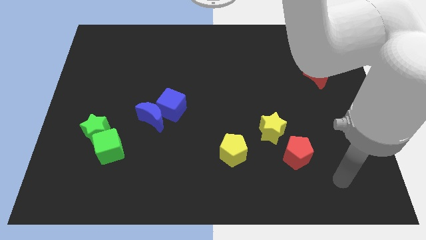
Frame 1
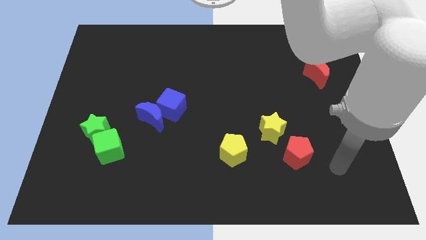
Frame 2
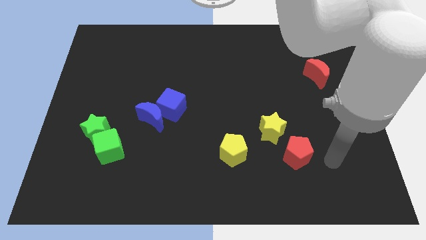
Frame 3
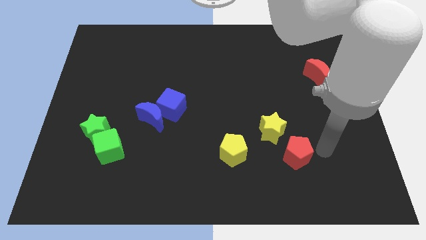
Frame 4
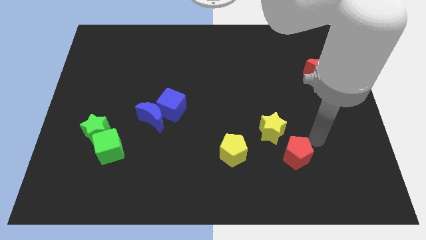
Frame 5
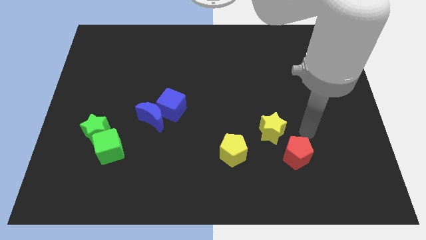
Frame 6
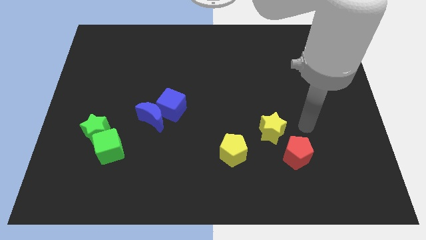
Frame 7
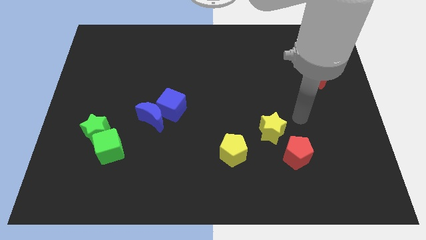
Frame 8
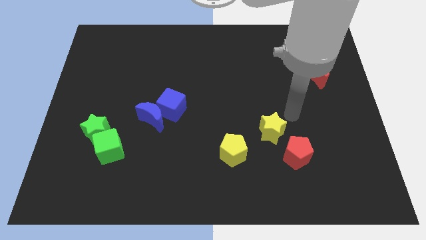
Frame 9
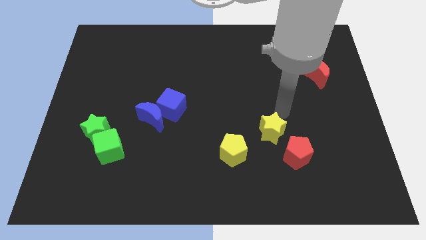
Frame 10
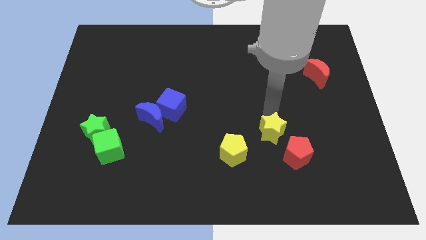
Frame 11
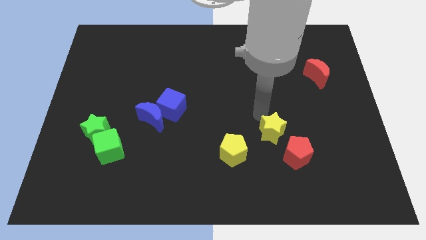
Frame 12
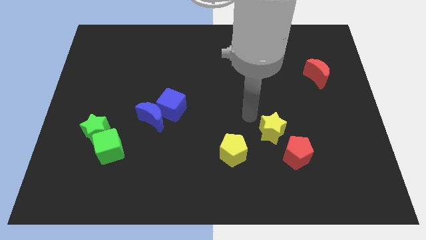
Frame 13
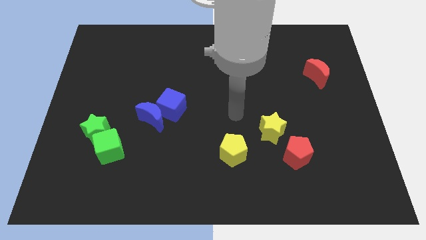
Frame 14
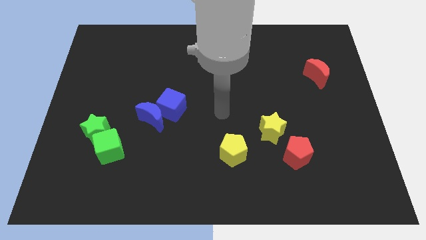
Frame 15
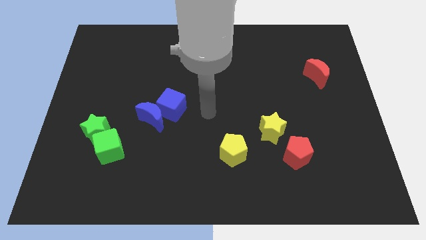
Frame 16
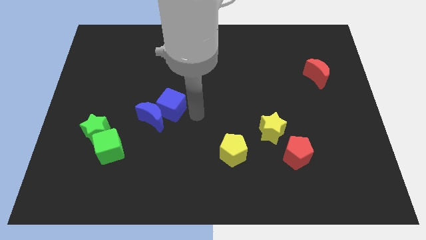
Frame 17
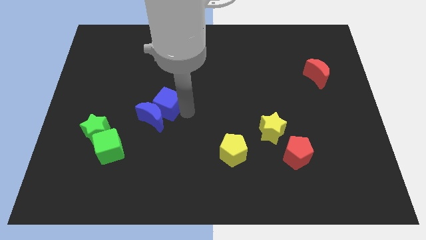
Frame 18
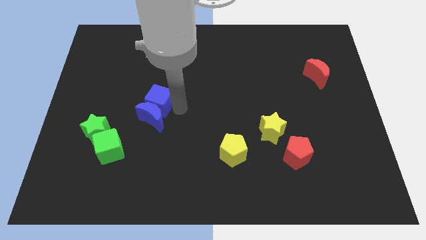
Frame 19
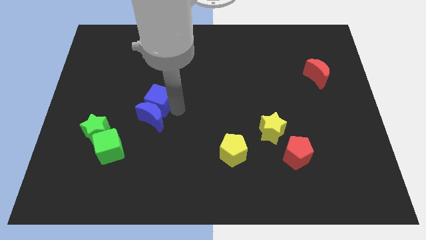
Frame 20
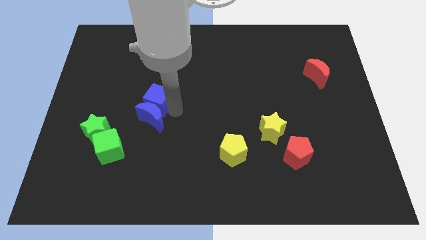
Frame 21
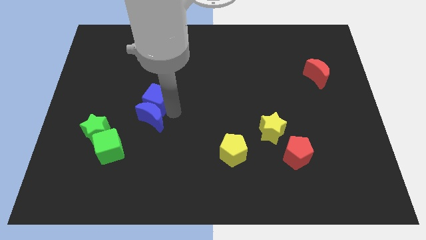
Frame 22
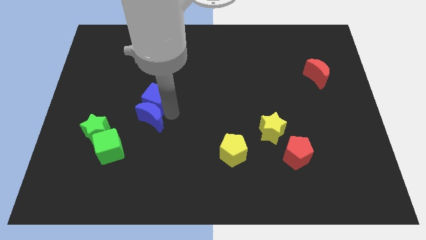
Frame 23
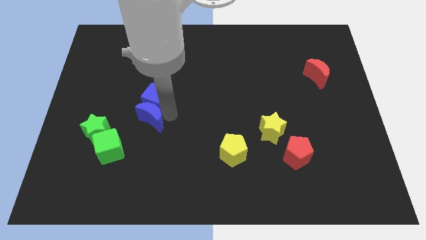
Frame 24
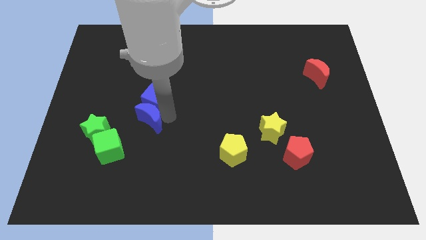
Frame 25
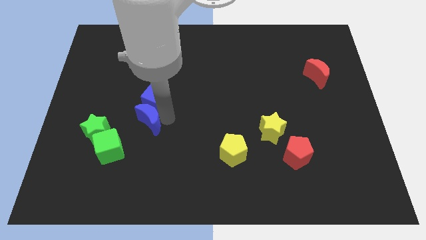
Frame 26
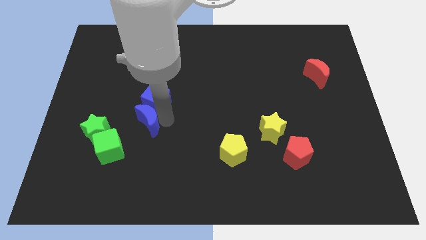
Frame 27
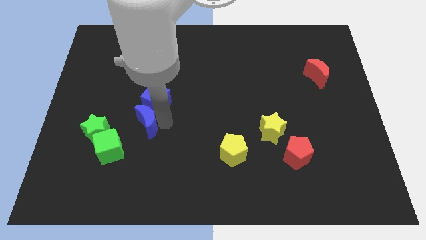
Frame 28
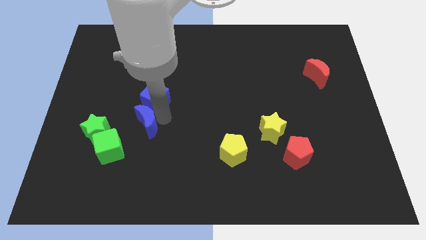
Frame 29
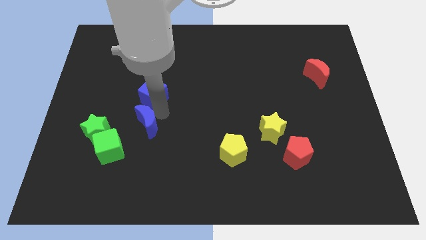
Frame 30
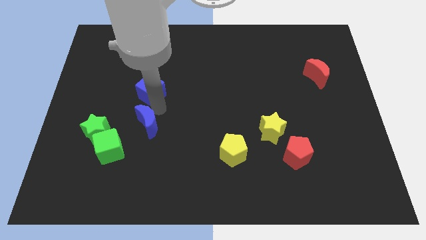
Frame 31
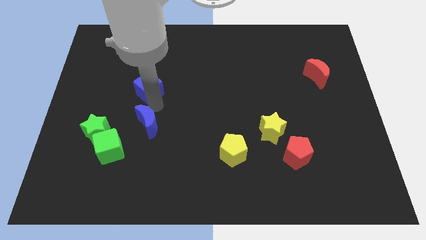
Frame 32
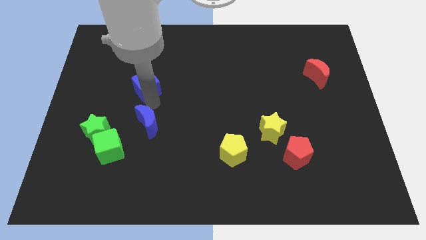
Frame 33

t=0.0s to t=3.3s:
pull the blue moon apart from the blue cube

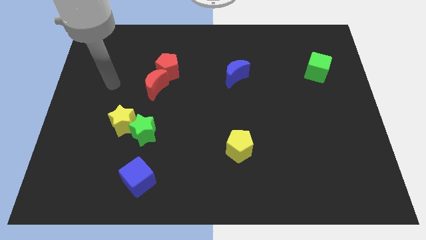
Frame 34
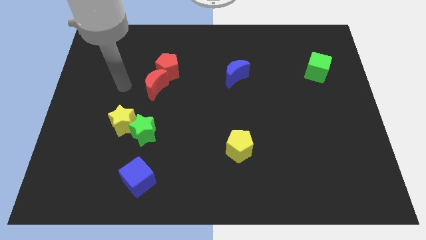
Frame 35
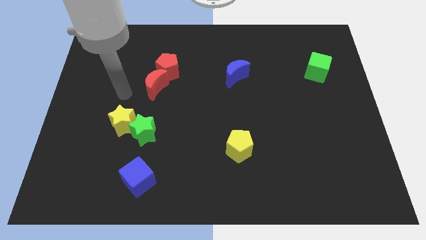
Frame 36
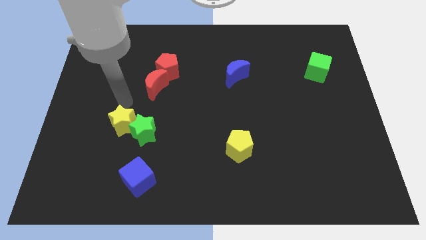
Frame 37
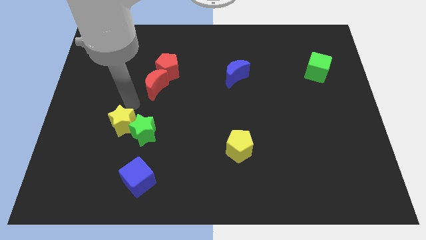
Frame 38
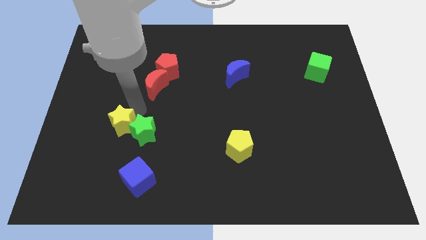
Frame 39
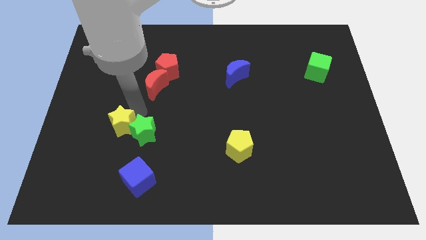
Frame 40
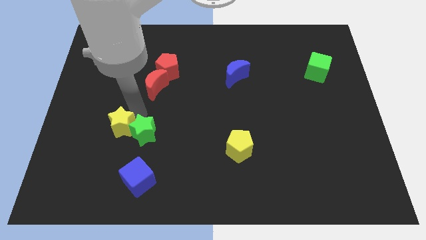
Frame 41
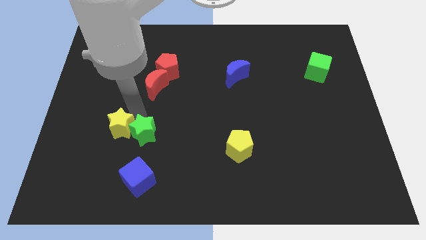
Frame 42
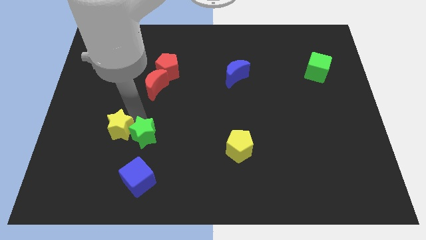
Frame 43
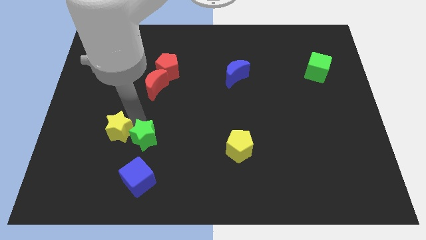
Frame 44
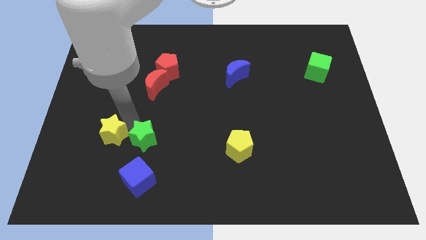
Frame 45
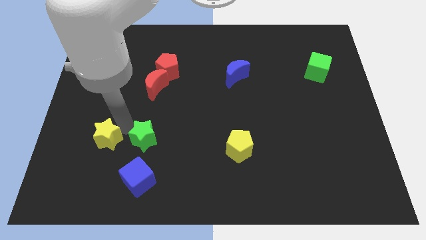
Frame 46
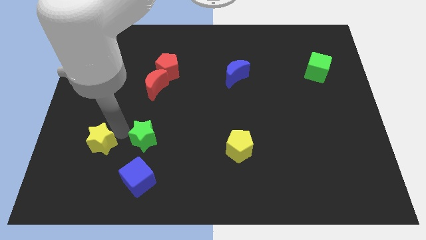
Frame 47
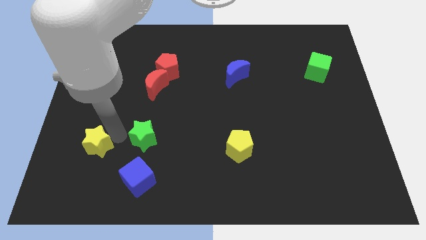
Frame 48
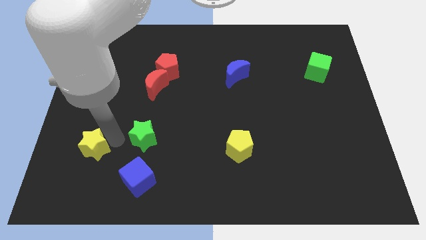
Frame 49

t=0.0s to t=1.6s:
move the green star away from the yellow star

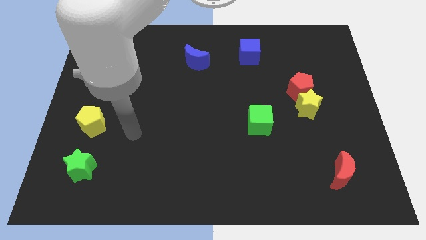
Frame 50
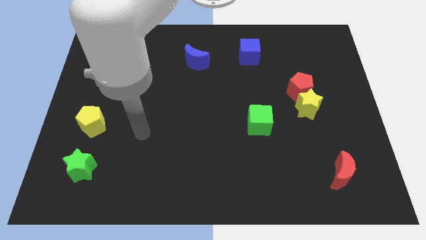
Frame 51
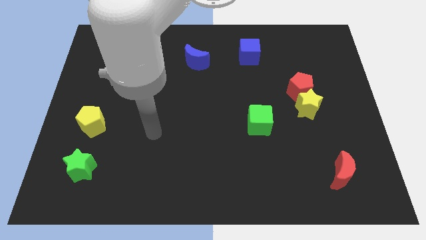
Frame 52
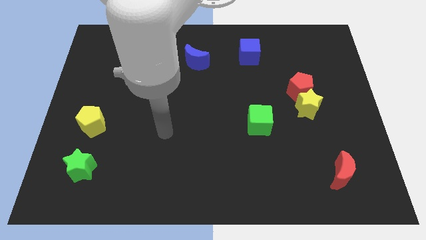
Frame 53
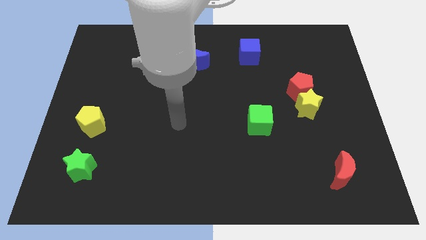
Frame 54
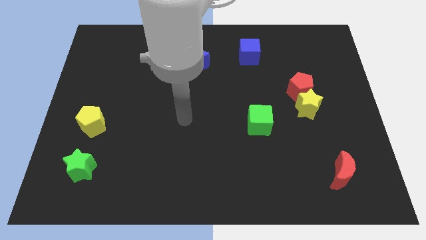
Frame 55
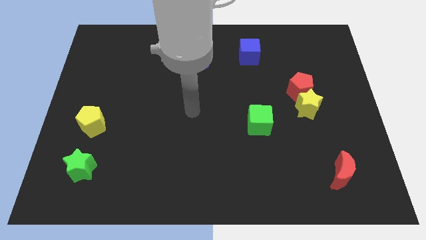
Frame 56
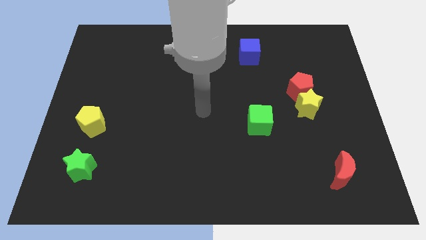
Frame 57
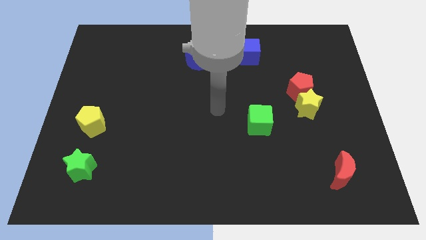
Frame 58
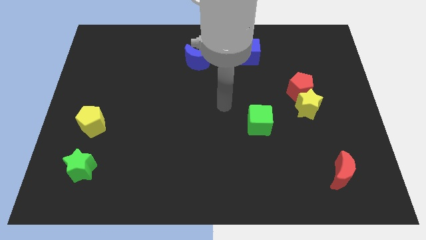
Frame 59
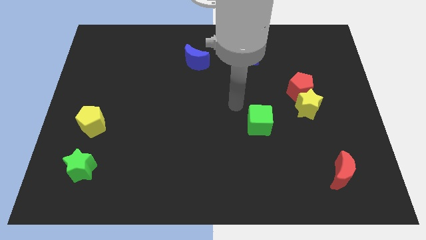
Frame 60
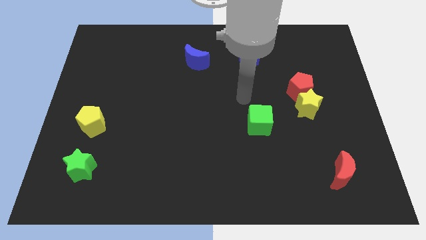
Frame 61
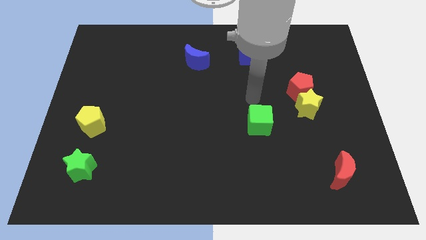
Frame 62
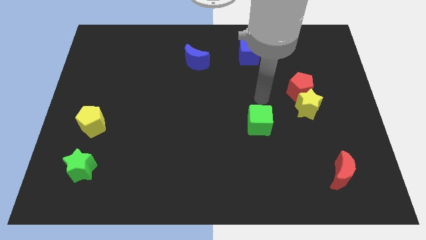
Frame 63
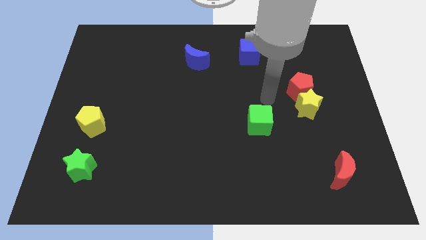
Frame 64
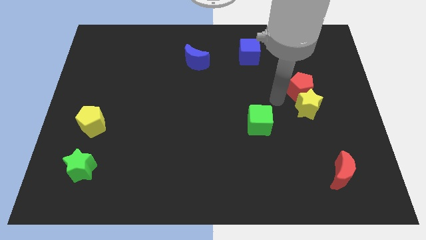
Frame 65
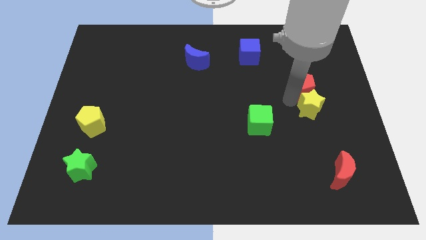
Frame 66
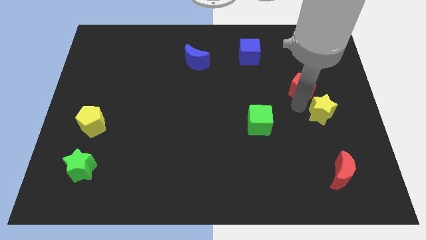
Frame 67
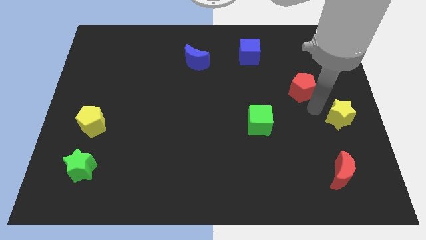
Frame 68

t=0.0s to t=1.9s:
move the red pentagon away from the yellow star

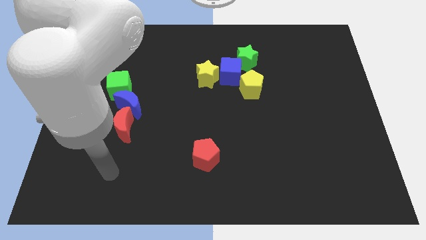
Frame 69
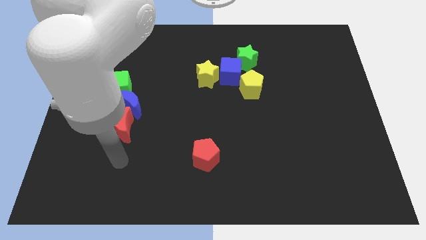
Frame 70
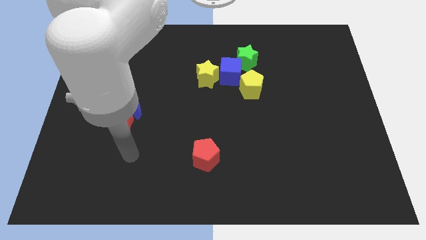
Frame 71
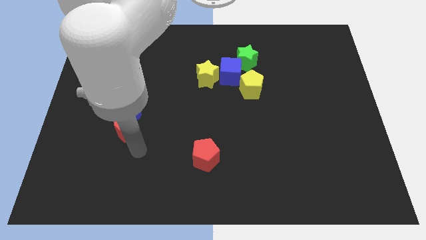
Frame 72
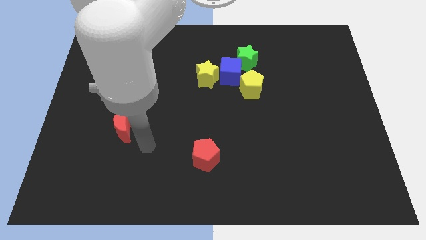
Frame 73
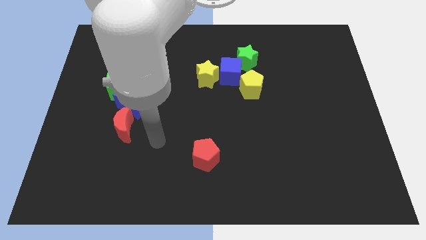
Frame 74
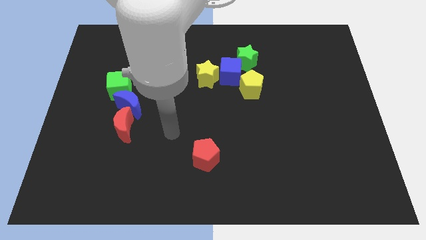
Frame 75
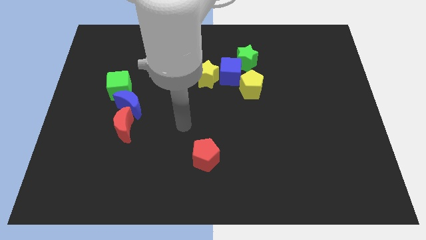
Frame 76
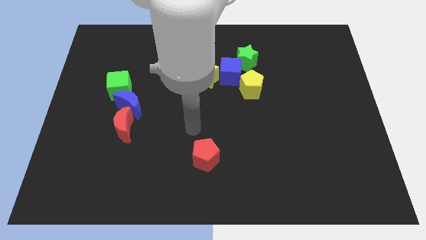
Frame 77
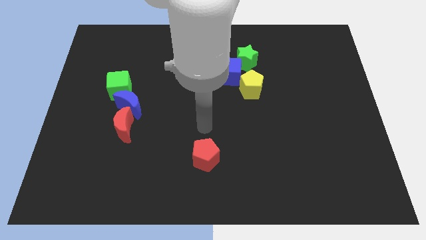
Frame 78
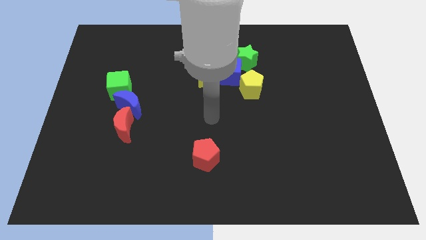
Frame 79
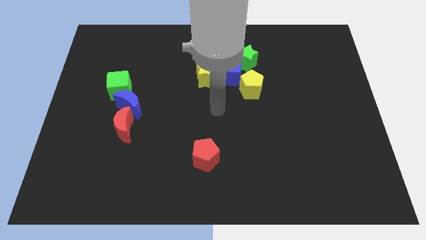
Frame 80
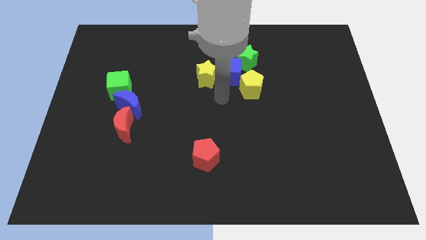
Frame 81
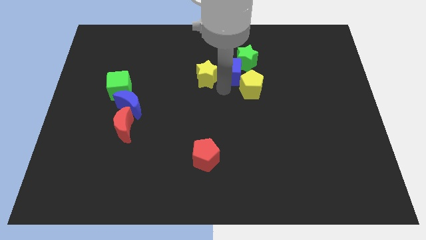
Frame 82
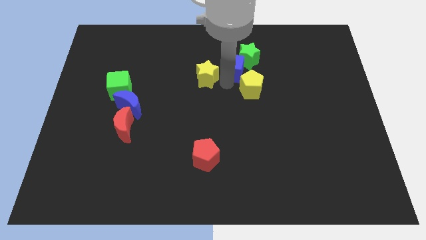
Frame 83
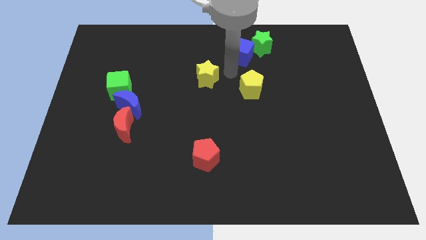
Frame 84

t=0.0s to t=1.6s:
separate the yellow star from the blue cube

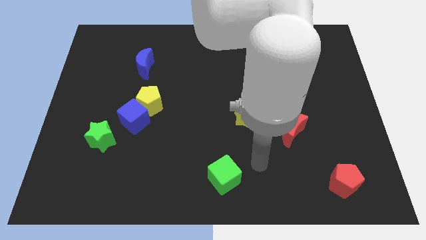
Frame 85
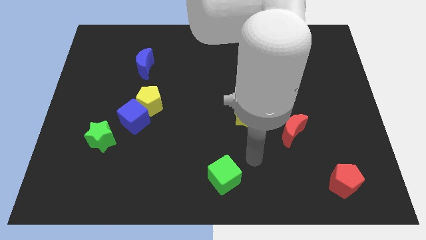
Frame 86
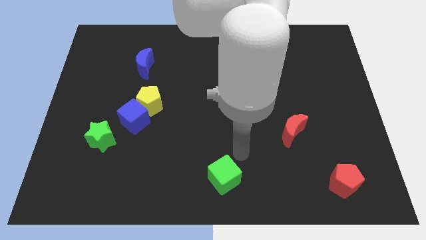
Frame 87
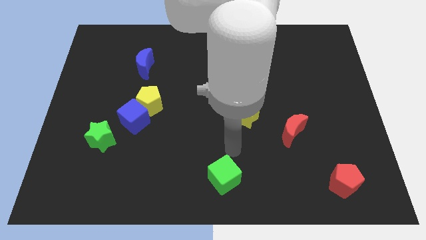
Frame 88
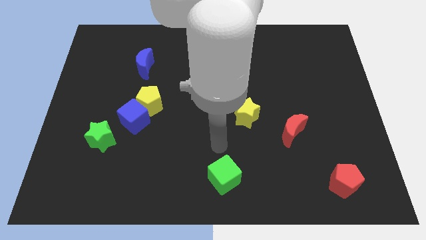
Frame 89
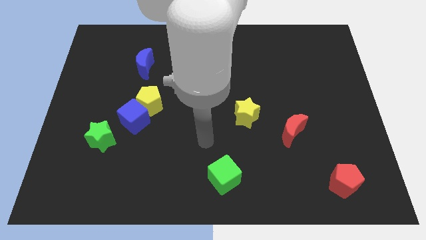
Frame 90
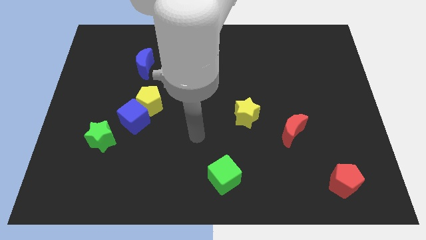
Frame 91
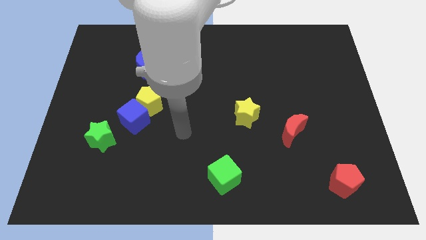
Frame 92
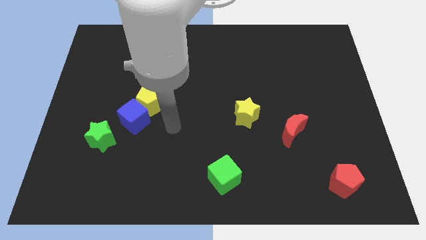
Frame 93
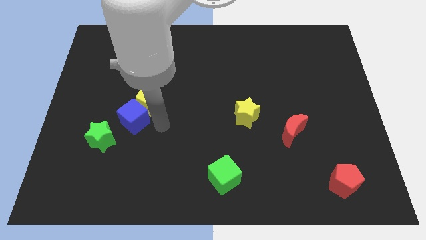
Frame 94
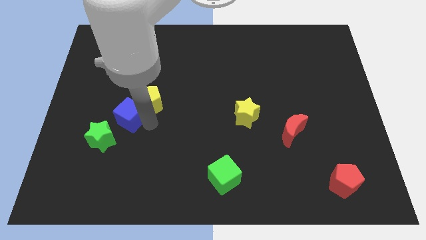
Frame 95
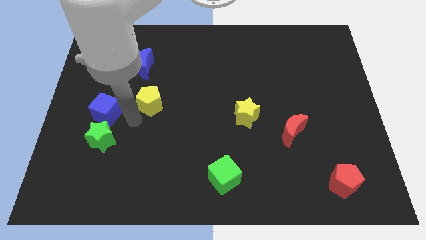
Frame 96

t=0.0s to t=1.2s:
move the yellow pentagon away from the blue cube
